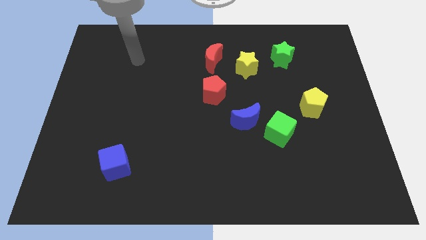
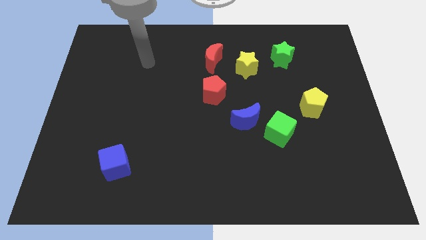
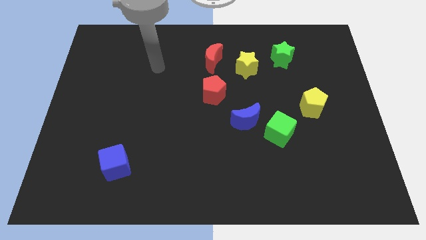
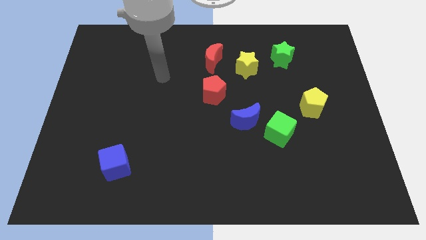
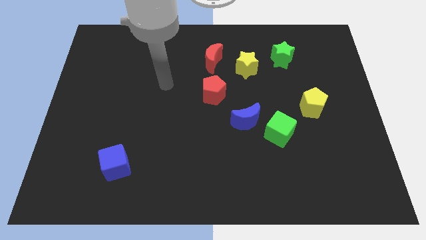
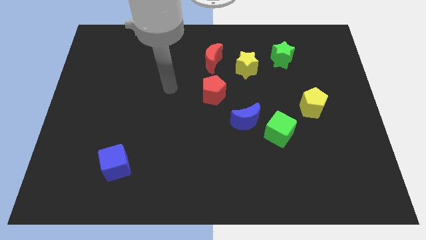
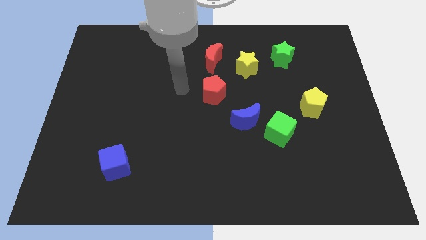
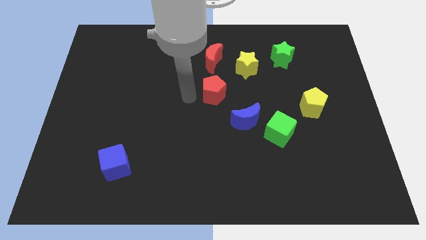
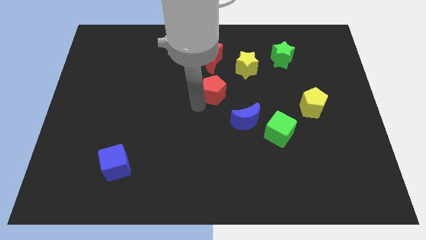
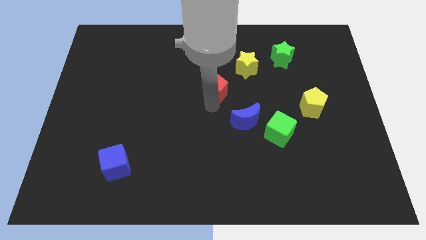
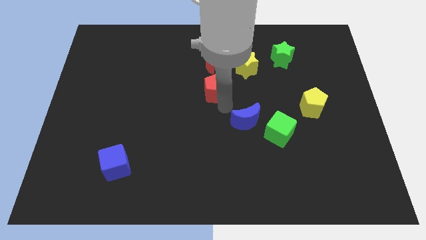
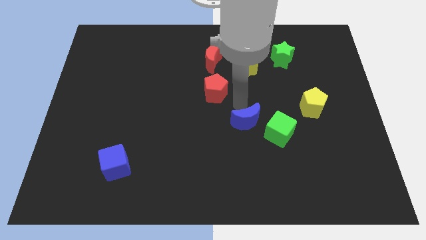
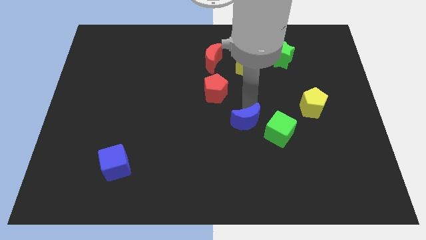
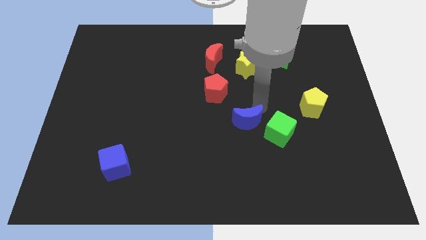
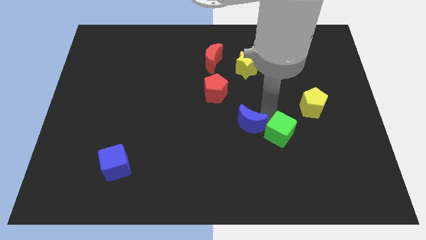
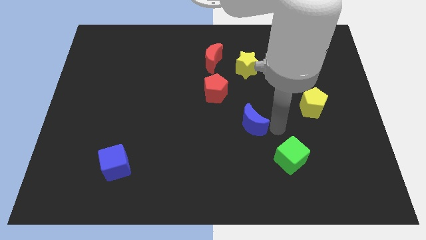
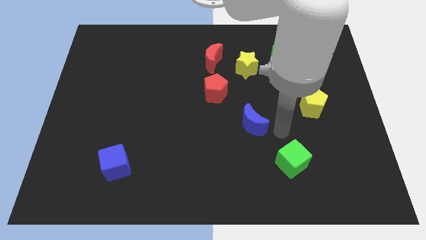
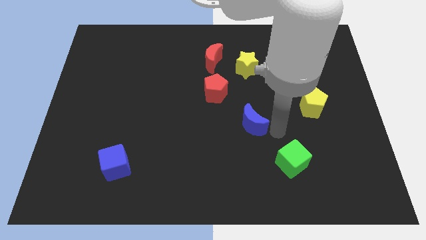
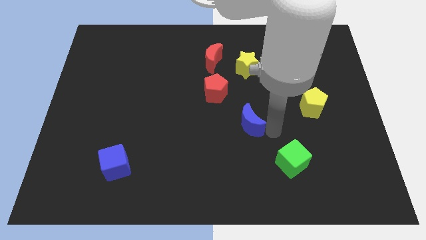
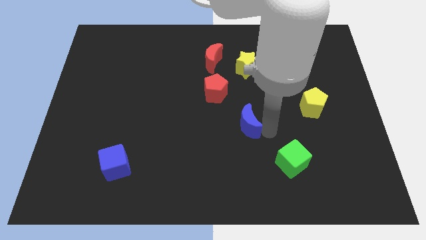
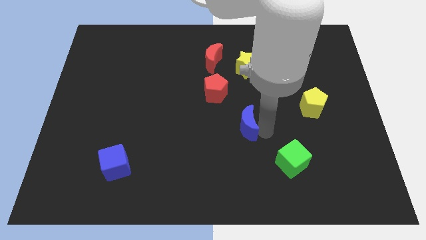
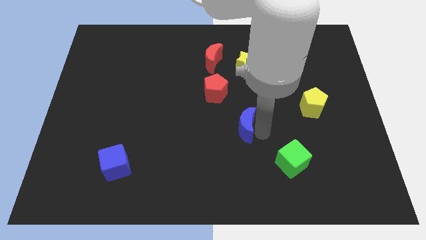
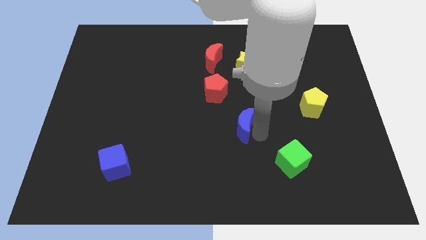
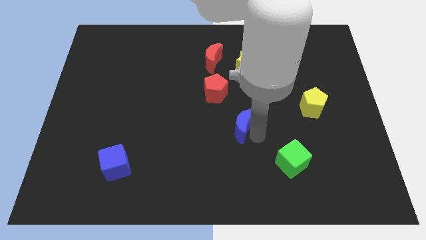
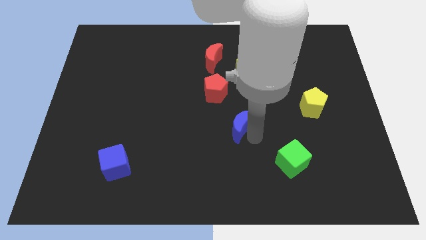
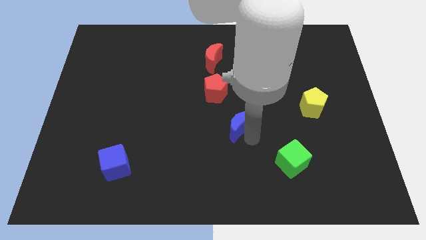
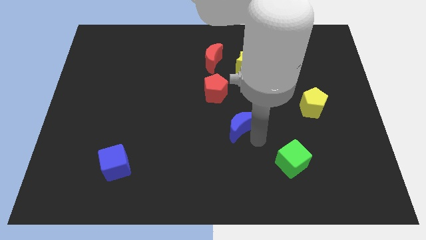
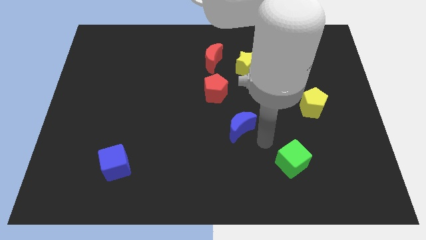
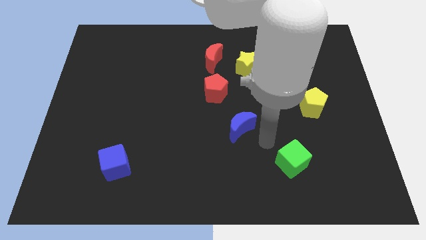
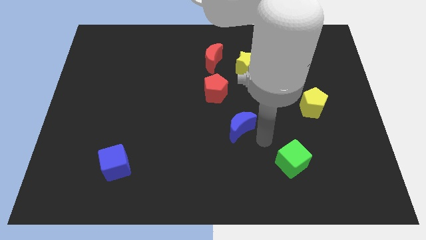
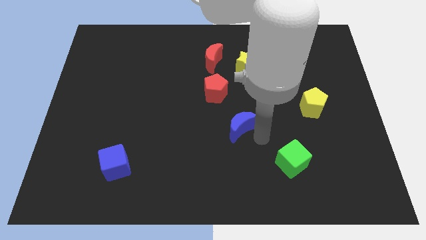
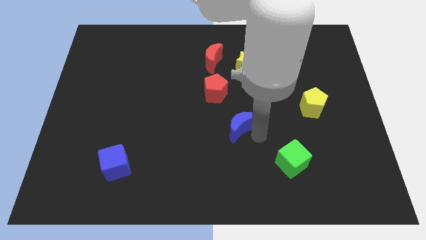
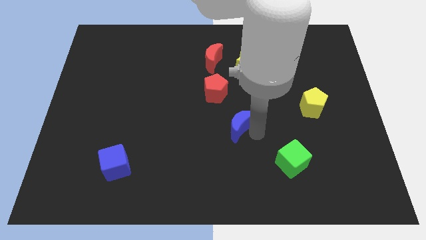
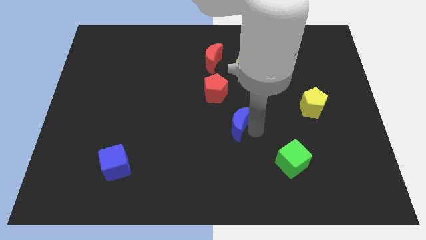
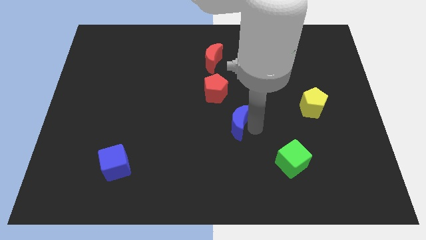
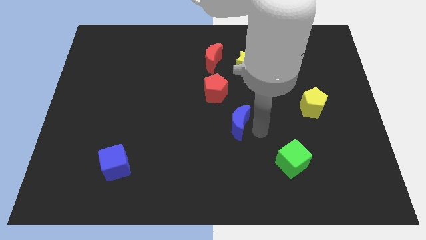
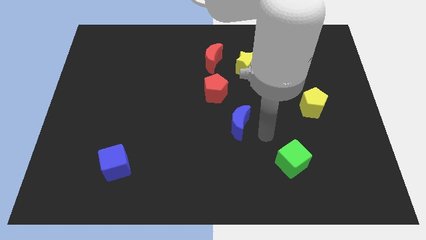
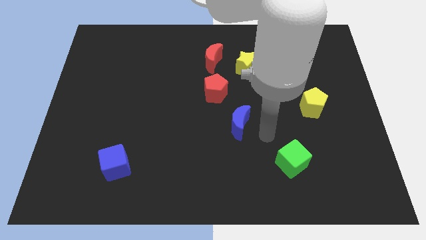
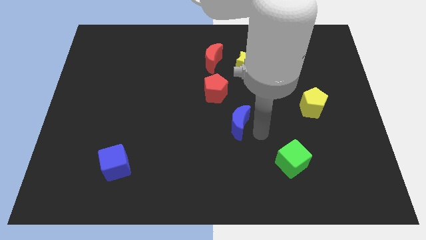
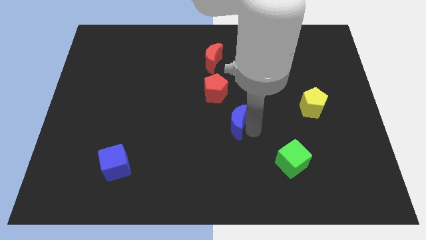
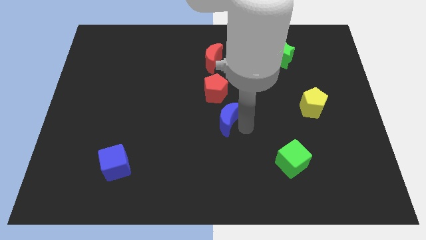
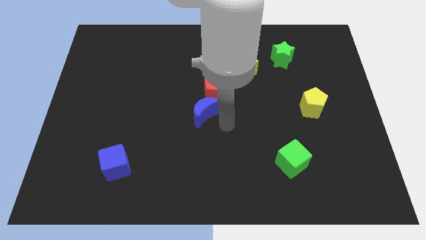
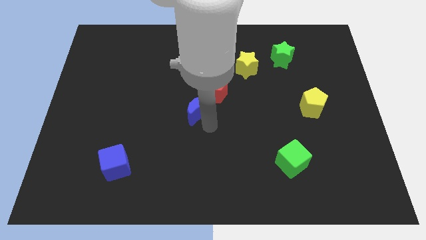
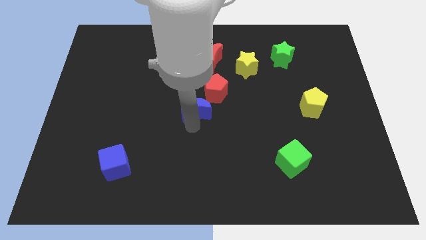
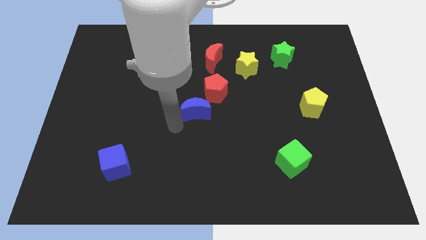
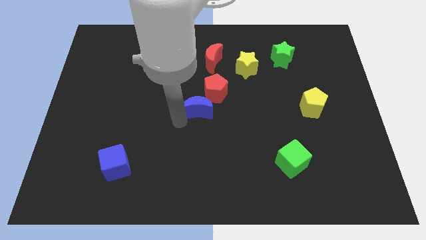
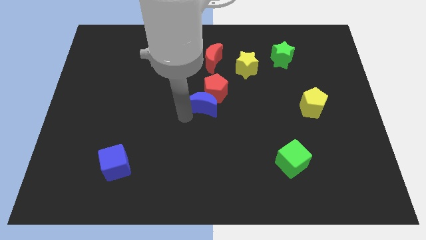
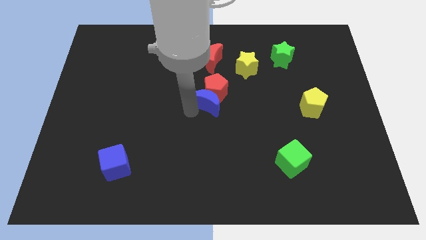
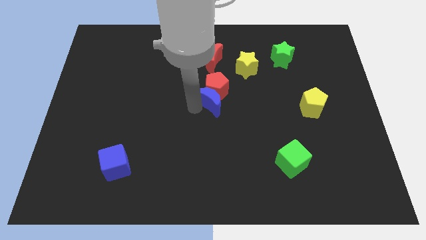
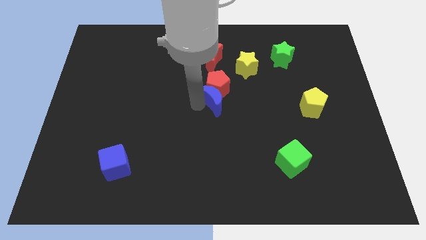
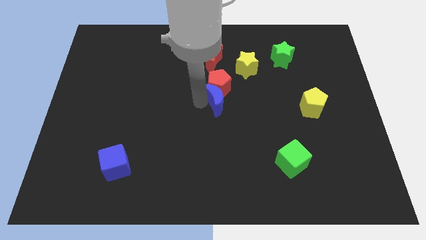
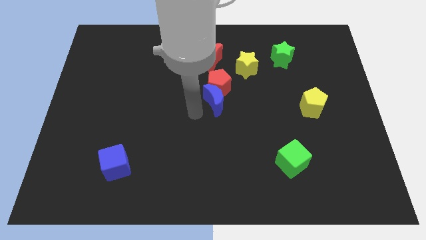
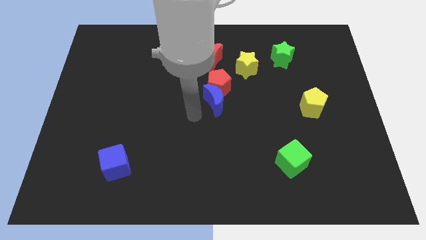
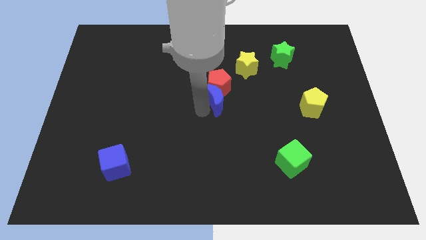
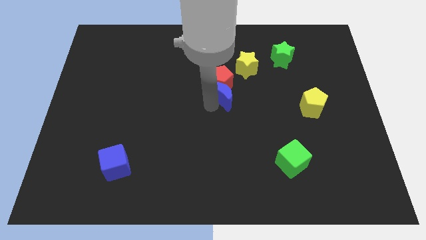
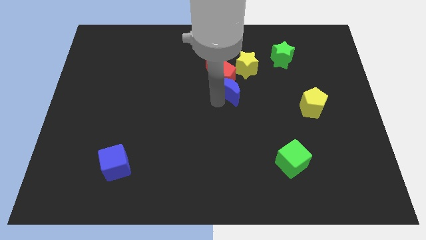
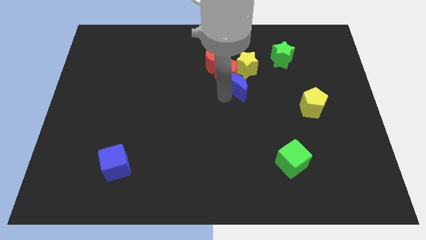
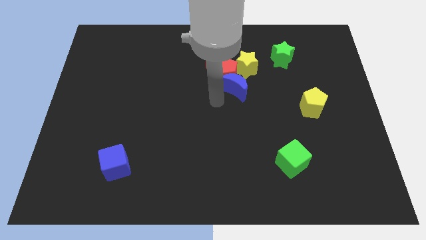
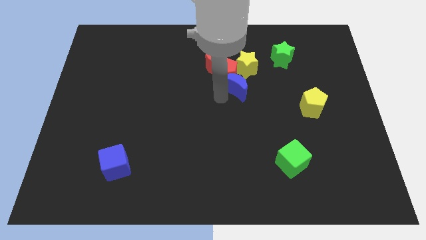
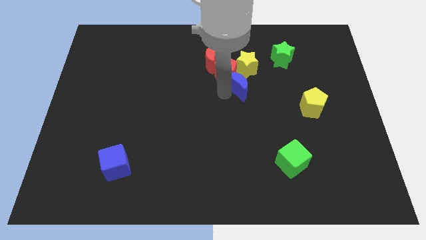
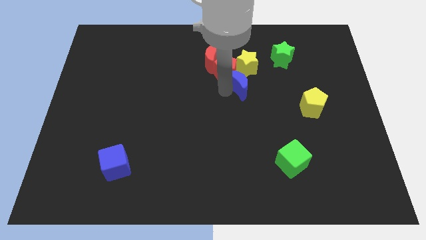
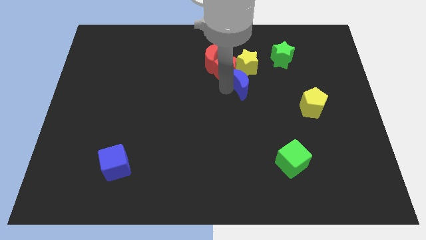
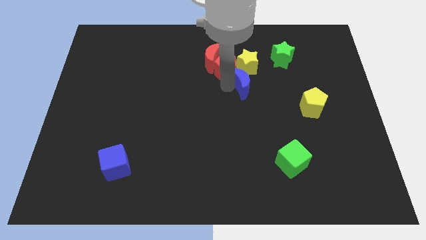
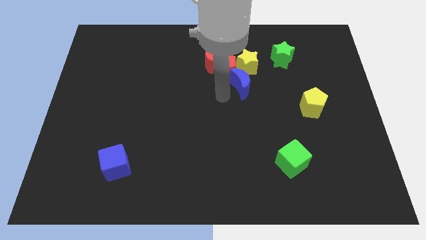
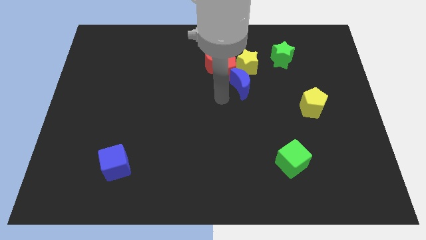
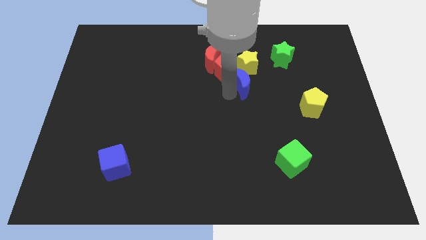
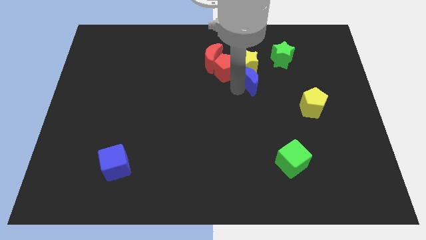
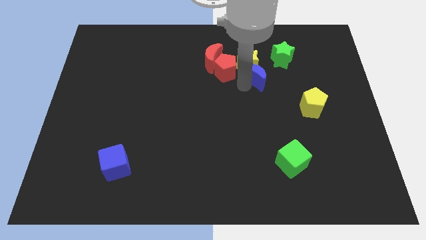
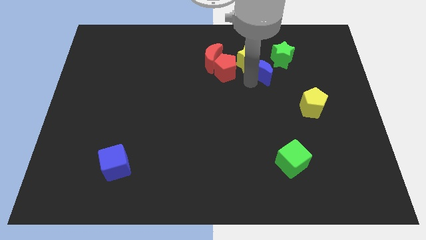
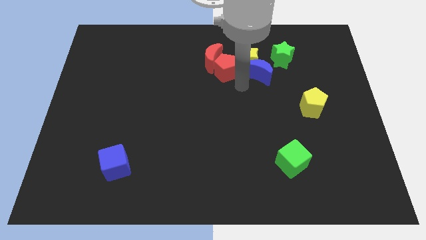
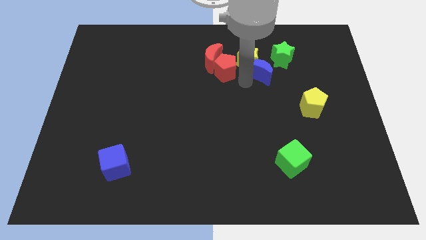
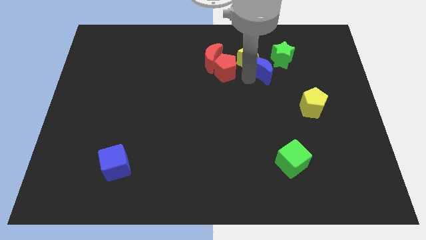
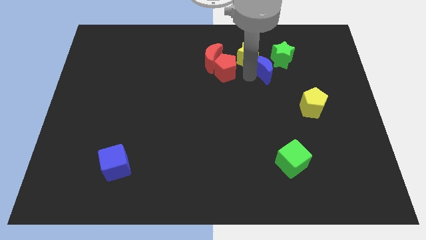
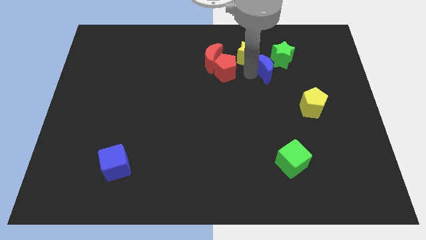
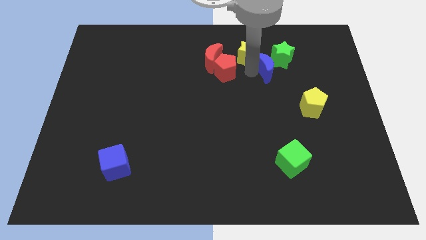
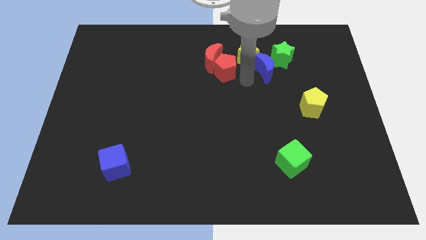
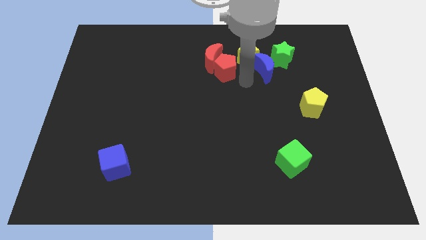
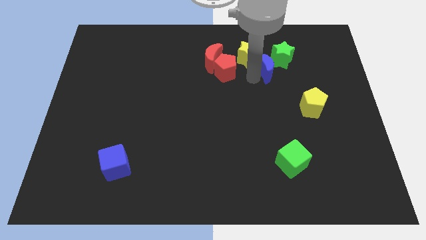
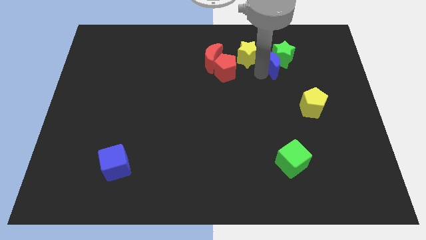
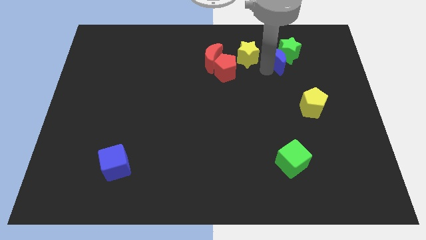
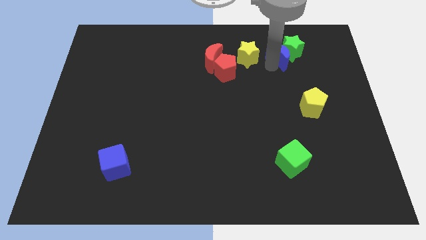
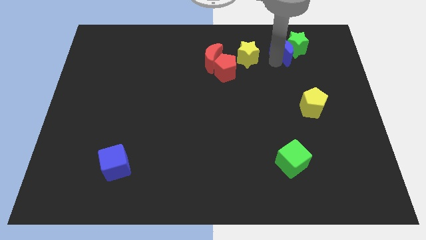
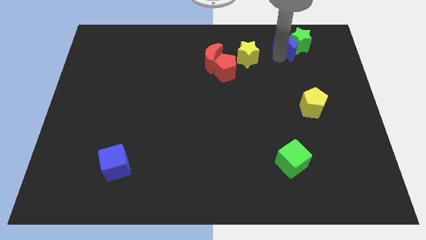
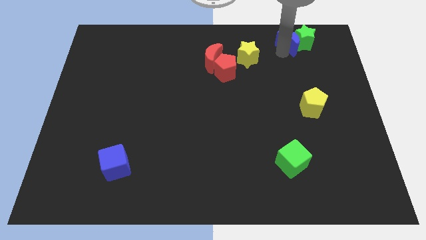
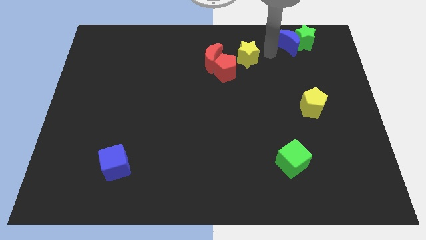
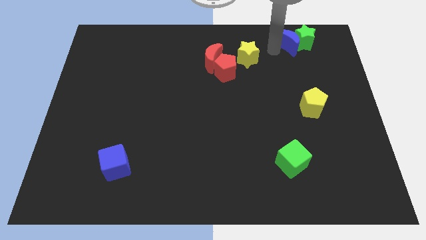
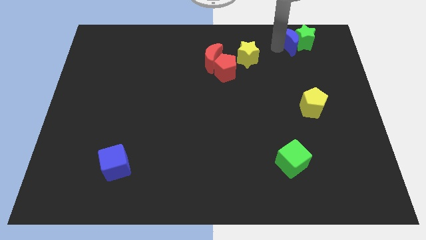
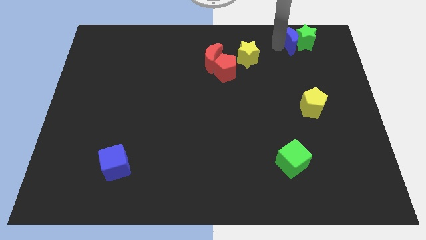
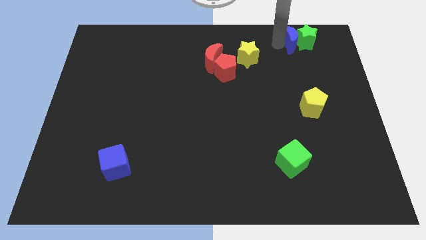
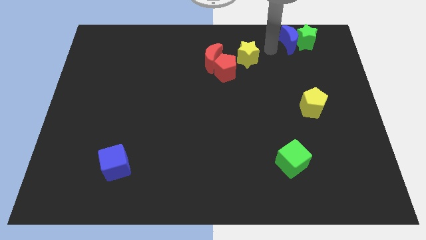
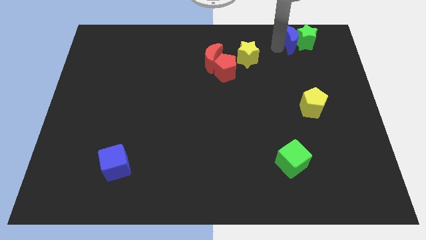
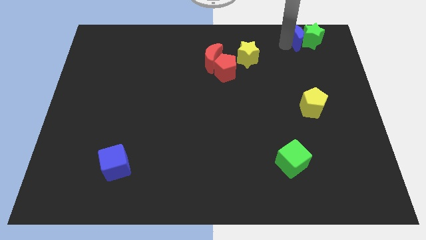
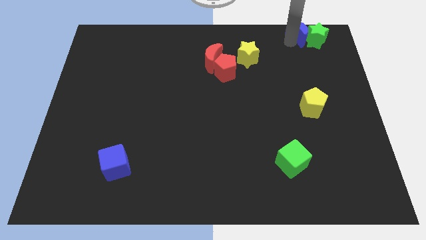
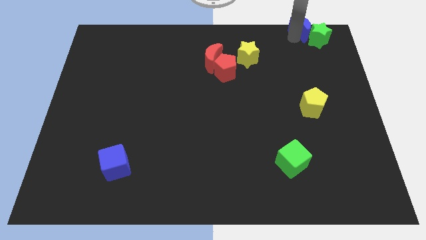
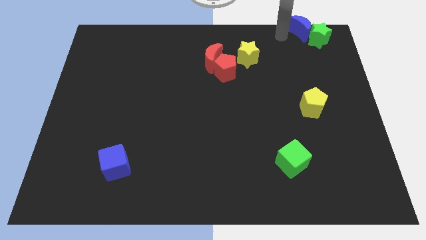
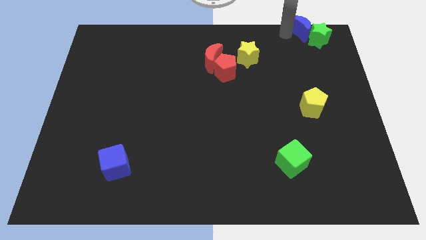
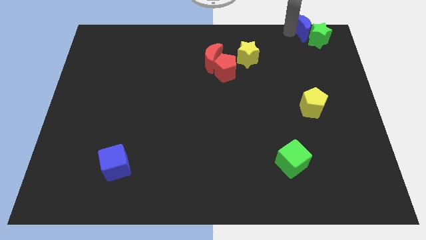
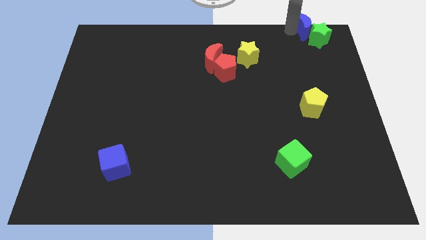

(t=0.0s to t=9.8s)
push the blue moon to the upper right corner
